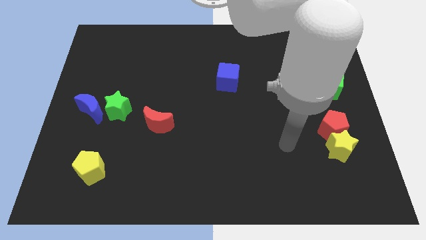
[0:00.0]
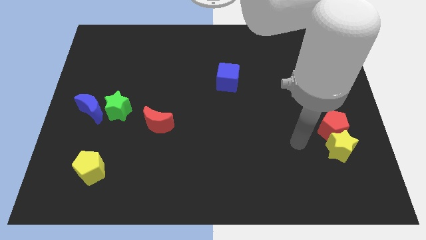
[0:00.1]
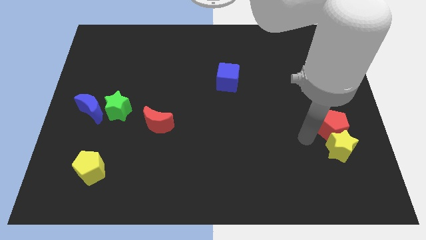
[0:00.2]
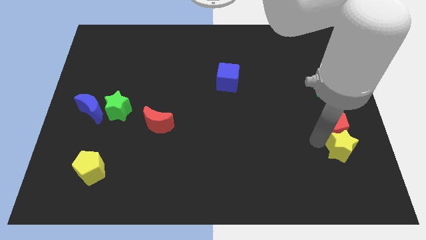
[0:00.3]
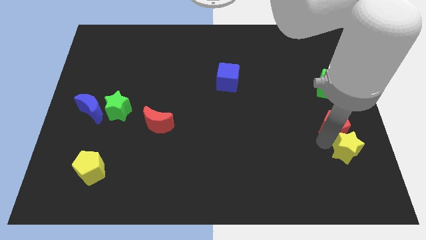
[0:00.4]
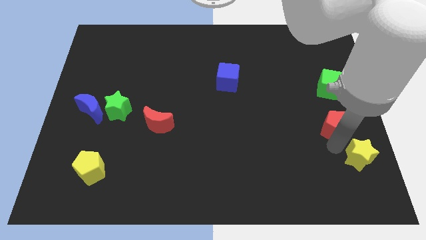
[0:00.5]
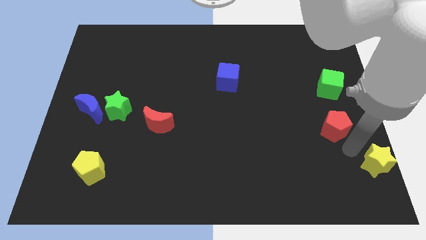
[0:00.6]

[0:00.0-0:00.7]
separate the red pentagon from the yellow star

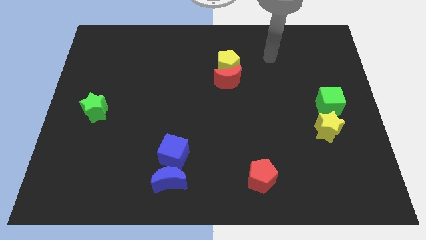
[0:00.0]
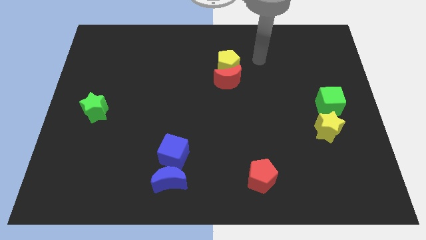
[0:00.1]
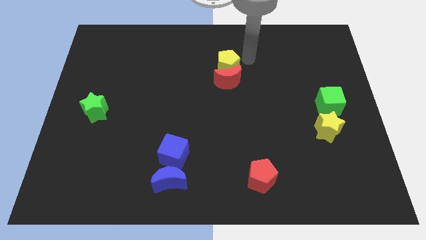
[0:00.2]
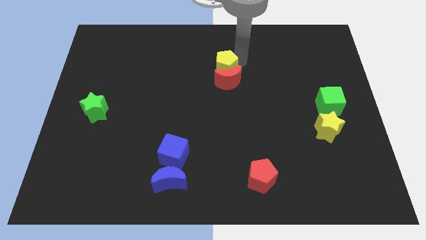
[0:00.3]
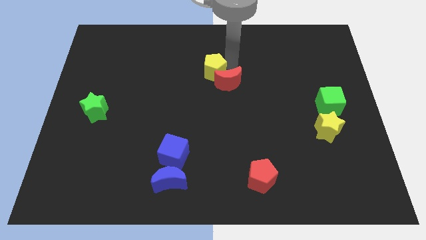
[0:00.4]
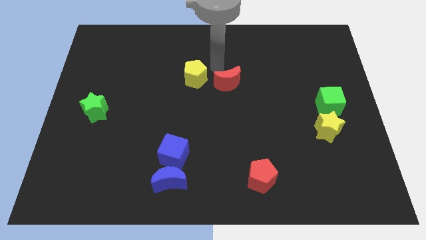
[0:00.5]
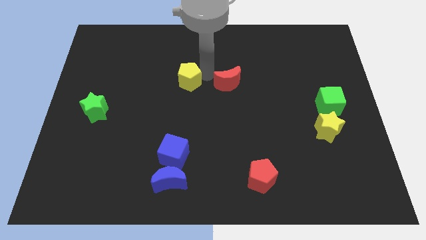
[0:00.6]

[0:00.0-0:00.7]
move the red moon away from the yellow pentagon

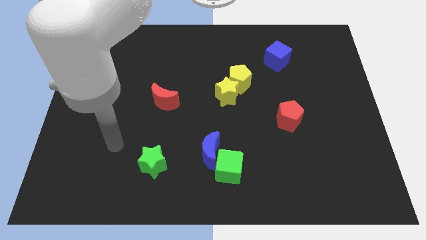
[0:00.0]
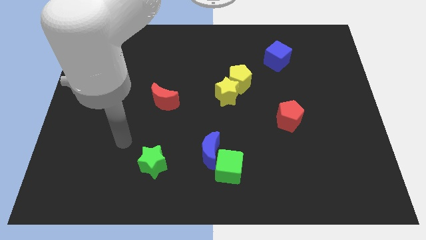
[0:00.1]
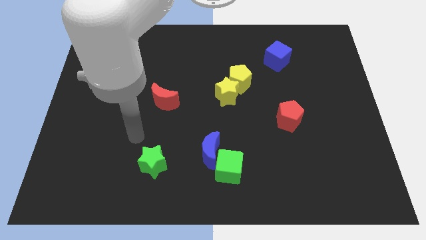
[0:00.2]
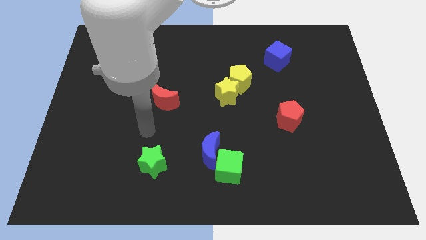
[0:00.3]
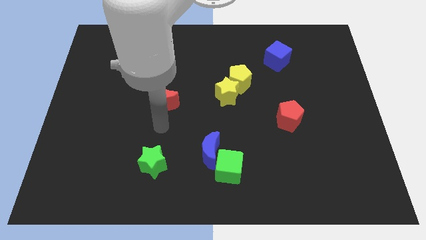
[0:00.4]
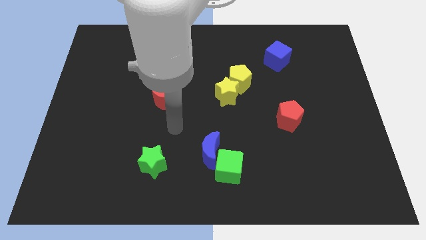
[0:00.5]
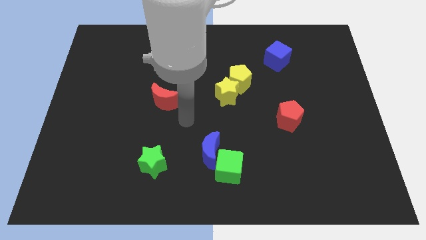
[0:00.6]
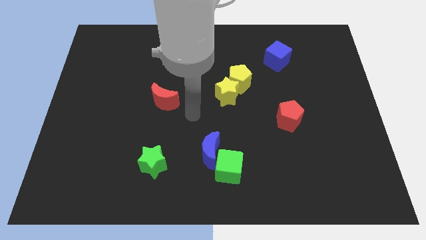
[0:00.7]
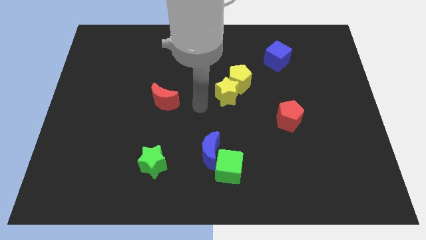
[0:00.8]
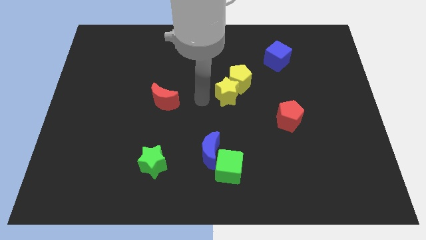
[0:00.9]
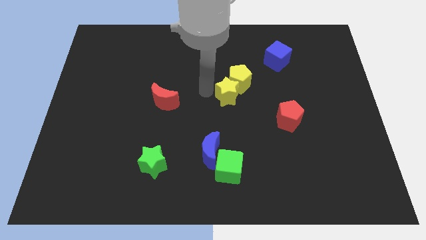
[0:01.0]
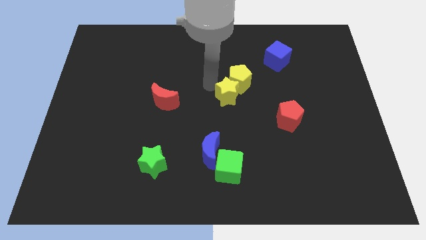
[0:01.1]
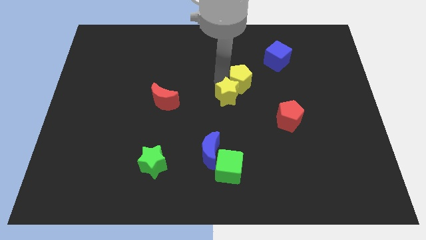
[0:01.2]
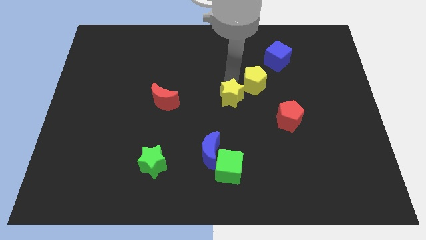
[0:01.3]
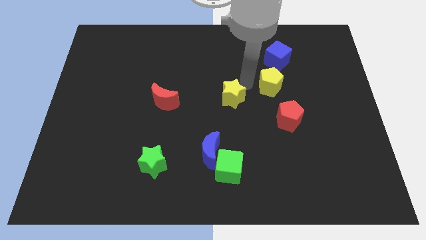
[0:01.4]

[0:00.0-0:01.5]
pull the yellow star apart from the yellow pentagon

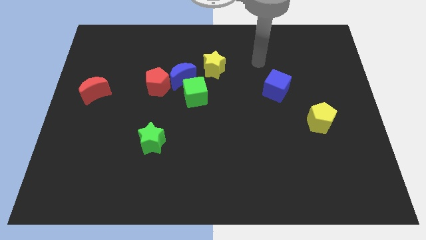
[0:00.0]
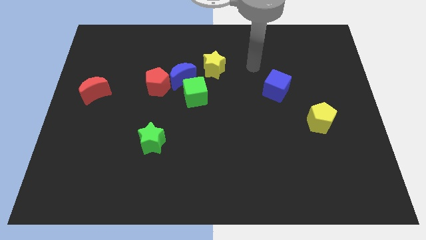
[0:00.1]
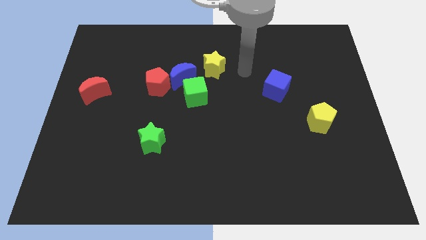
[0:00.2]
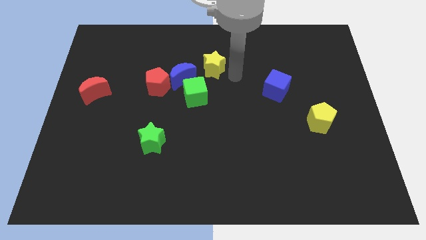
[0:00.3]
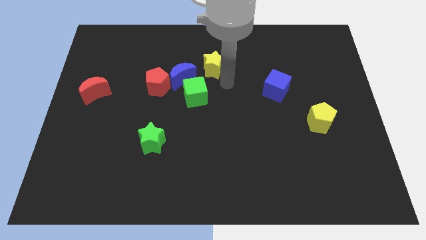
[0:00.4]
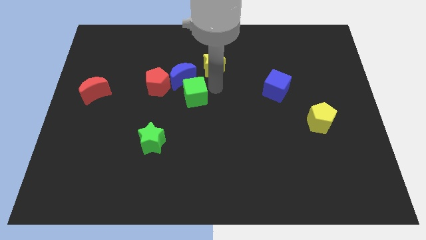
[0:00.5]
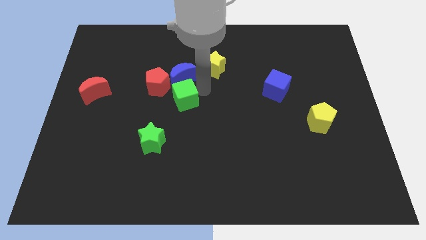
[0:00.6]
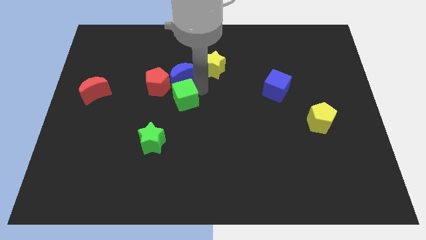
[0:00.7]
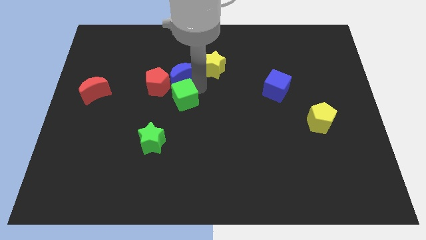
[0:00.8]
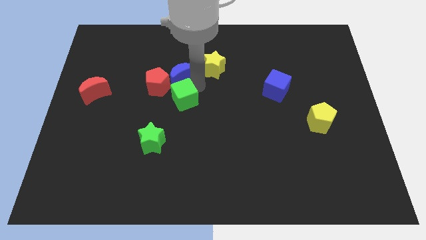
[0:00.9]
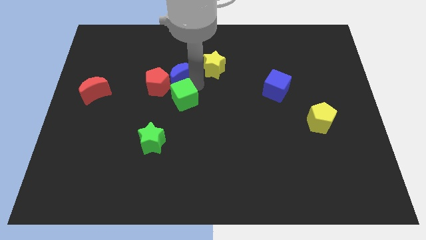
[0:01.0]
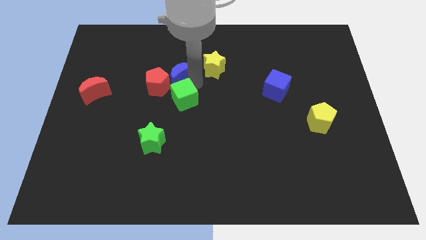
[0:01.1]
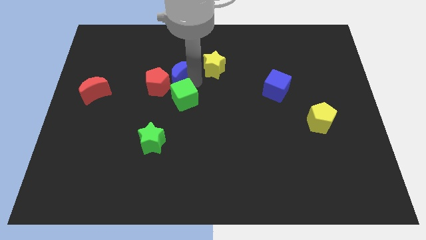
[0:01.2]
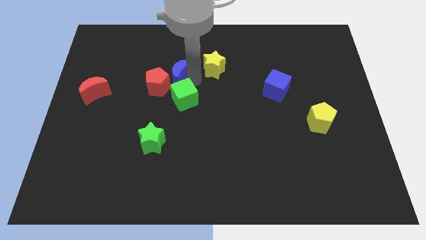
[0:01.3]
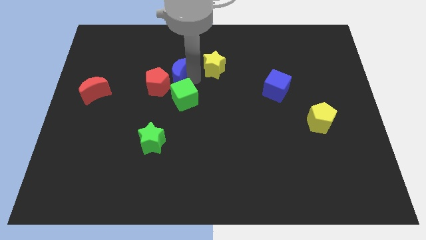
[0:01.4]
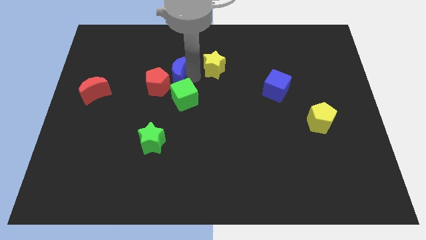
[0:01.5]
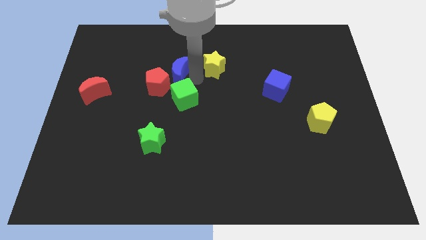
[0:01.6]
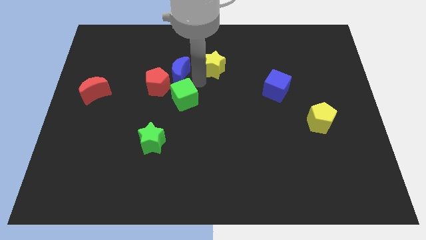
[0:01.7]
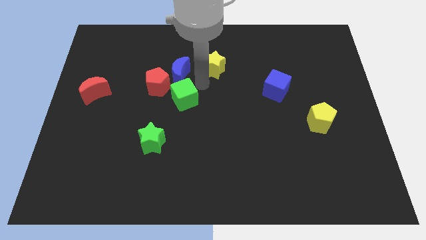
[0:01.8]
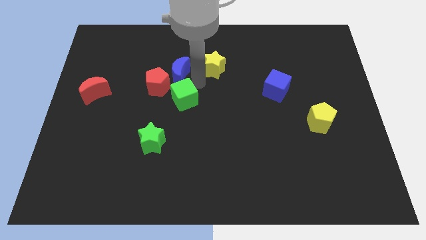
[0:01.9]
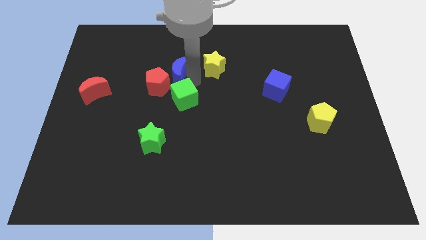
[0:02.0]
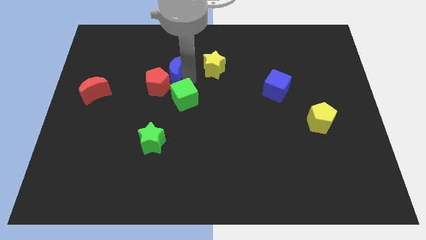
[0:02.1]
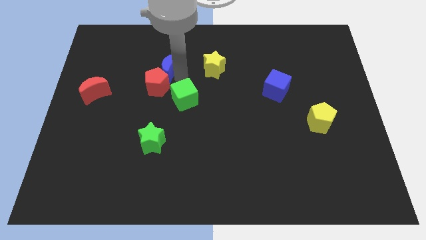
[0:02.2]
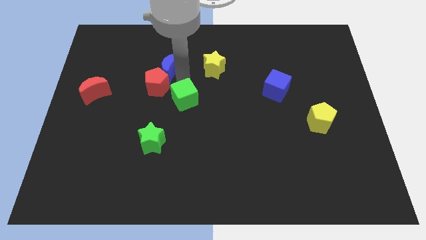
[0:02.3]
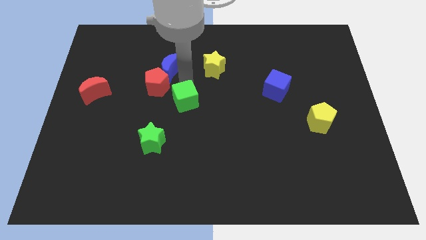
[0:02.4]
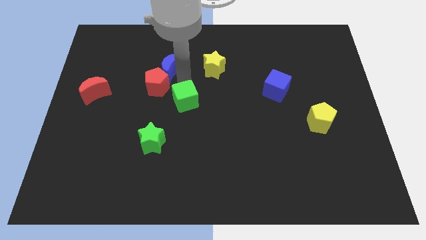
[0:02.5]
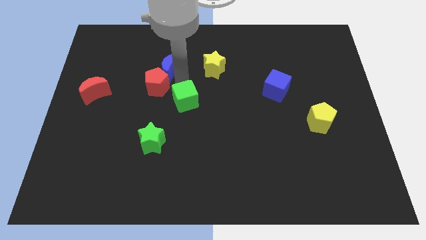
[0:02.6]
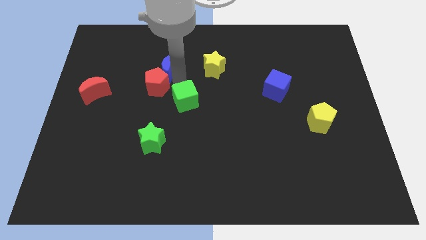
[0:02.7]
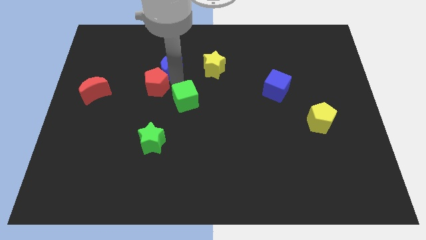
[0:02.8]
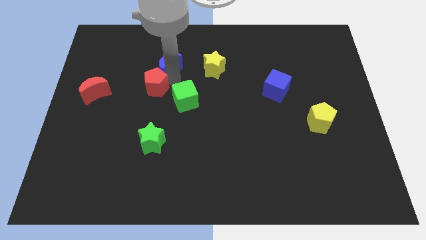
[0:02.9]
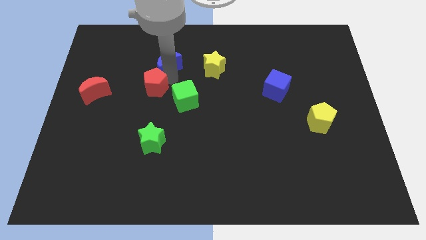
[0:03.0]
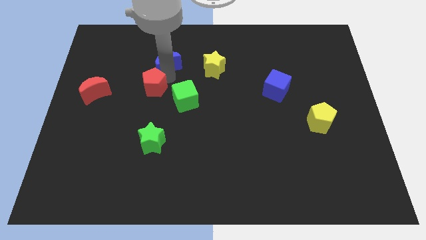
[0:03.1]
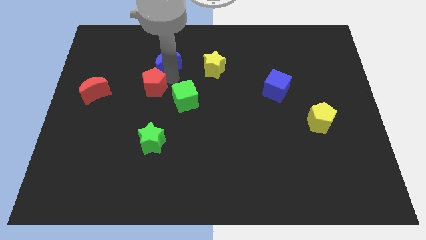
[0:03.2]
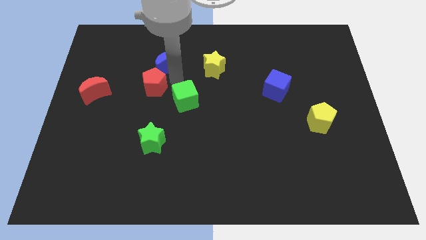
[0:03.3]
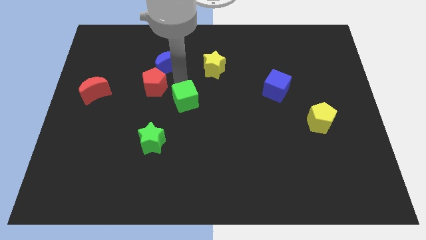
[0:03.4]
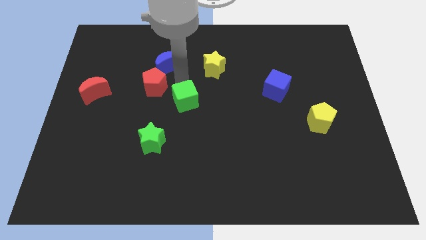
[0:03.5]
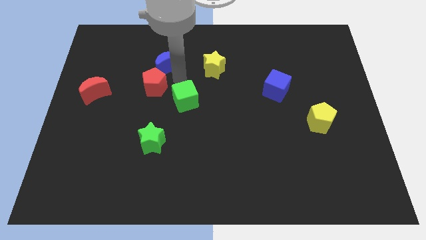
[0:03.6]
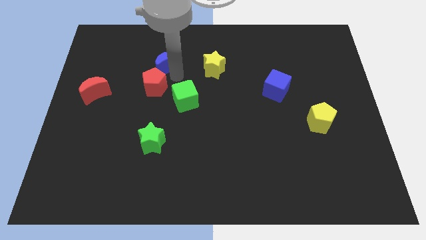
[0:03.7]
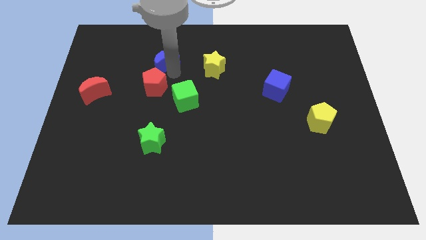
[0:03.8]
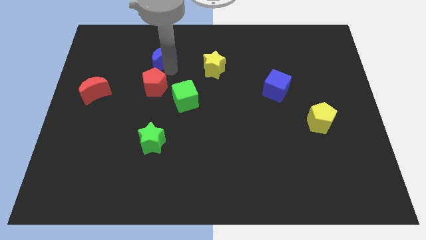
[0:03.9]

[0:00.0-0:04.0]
move the blue moon away from the red pentagon, green cube, and yellow star

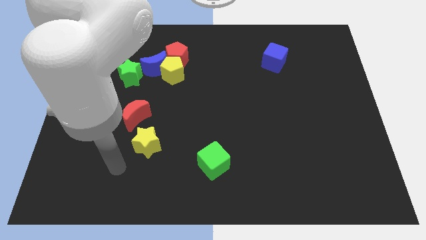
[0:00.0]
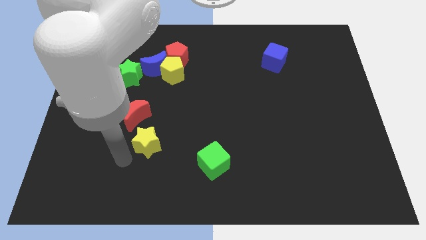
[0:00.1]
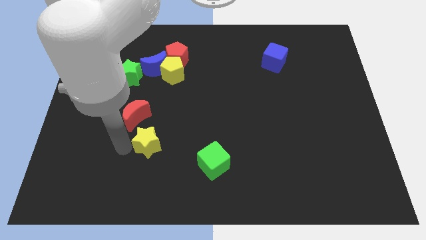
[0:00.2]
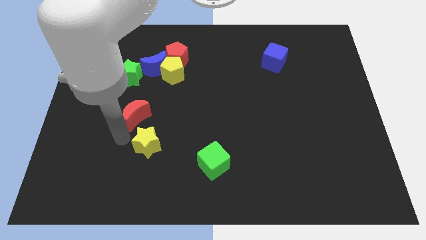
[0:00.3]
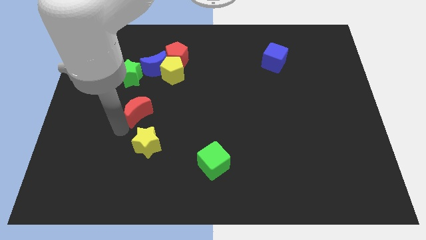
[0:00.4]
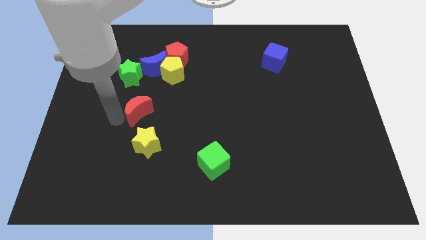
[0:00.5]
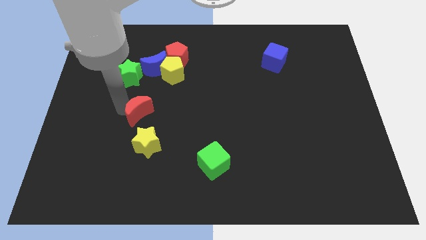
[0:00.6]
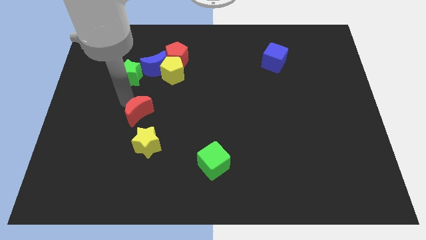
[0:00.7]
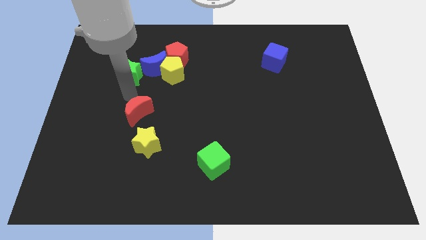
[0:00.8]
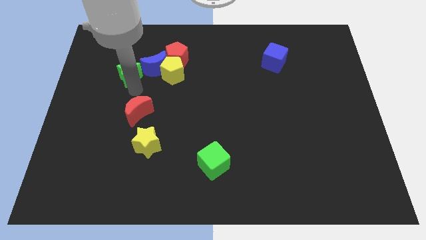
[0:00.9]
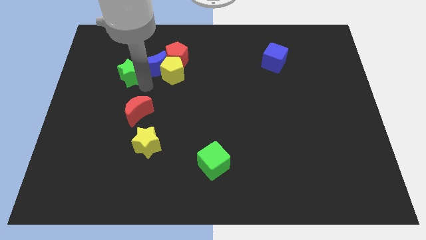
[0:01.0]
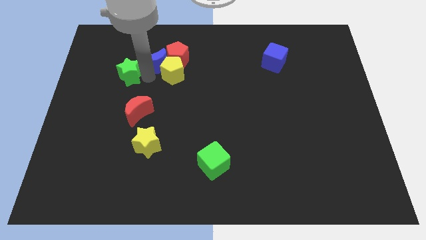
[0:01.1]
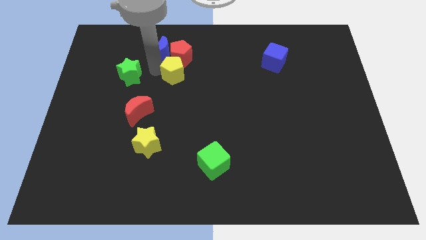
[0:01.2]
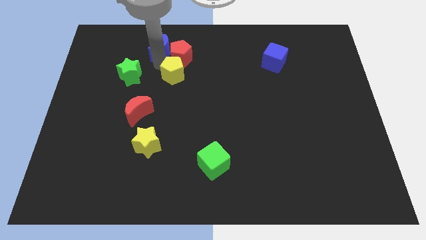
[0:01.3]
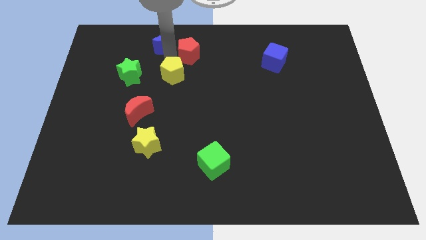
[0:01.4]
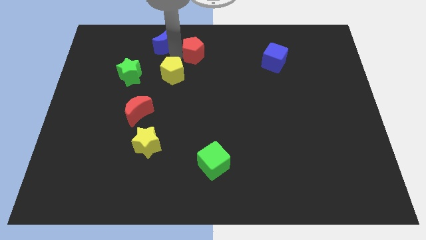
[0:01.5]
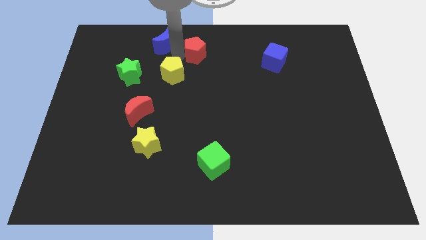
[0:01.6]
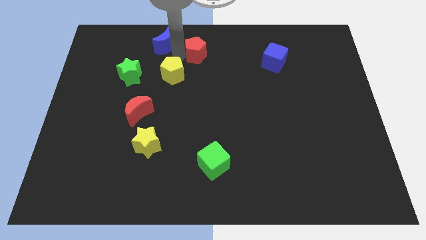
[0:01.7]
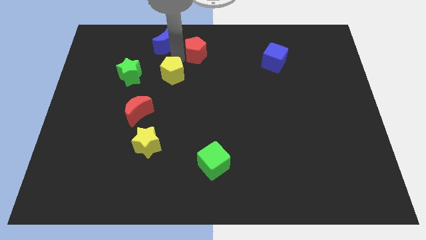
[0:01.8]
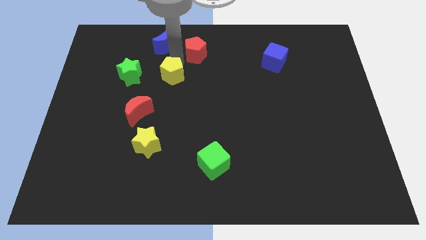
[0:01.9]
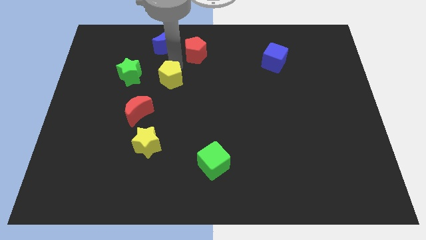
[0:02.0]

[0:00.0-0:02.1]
separate the yellow pentagon from the blue moon and red pentagon

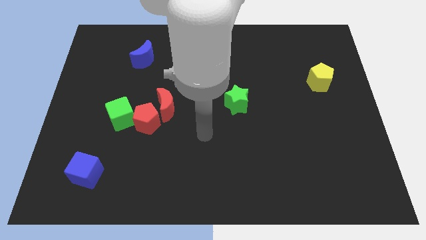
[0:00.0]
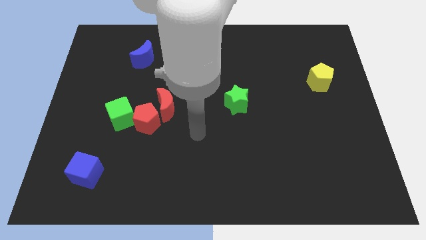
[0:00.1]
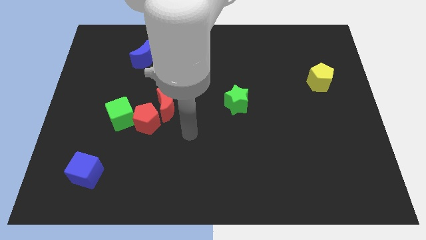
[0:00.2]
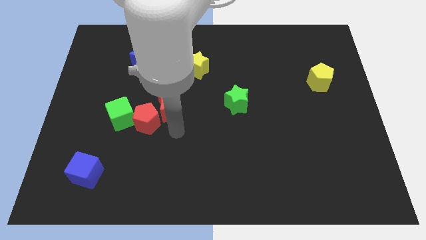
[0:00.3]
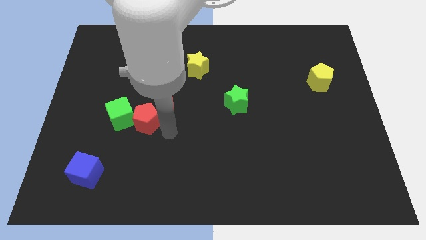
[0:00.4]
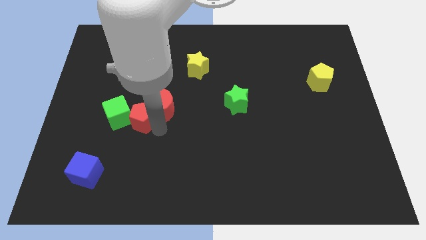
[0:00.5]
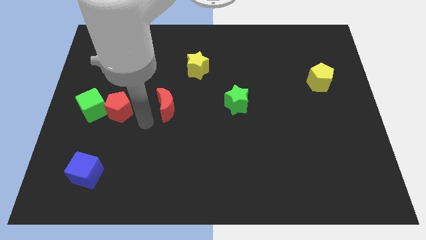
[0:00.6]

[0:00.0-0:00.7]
move the red moon away from the red pentagon
